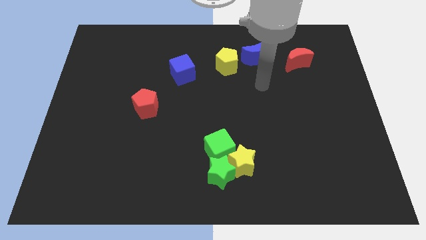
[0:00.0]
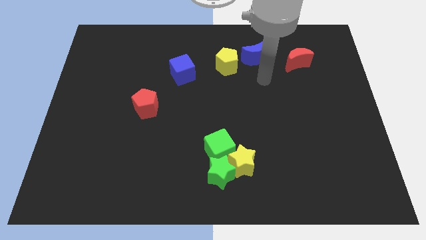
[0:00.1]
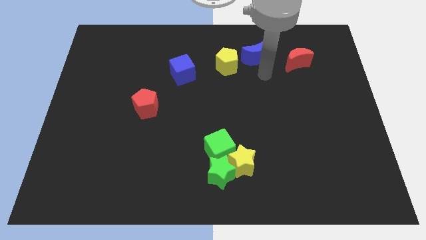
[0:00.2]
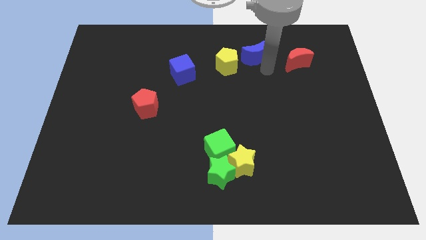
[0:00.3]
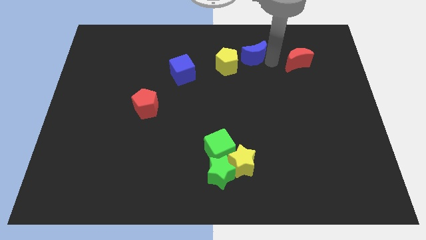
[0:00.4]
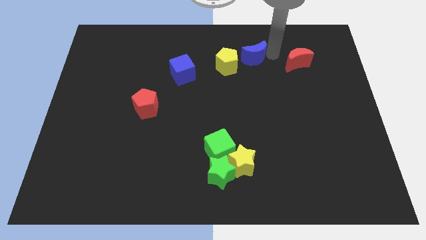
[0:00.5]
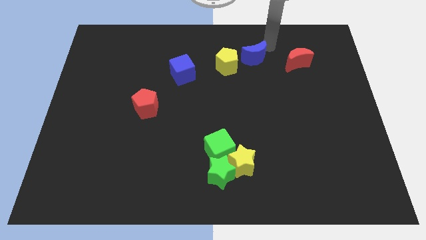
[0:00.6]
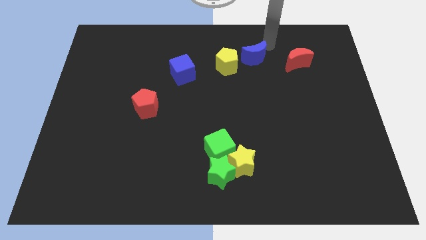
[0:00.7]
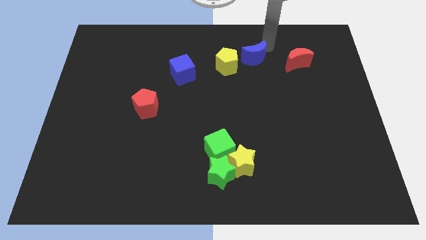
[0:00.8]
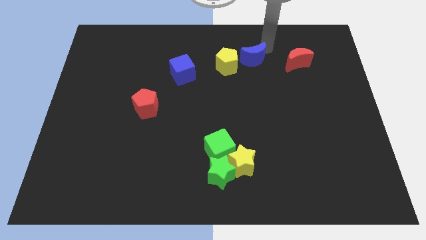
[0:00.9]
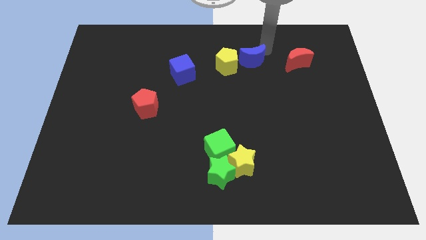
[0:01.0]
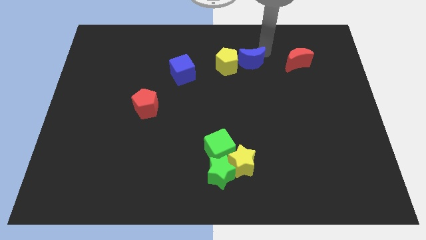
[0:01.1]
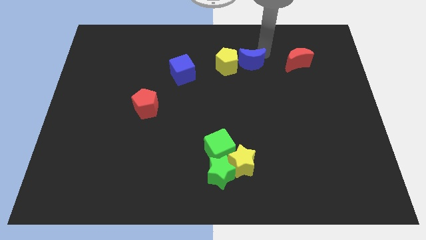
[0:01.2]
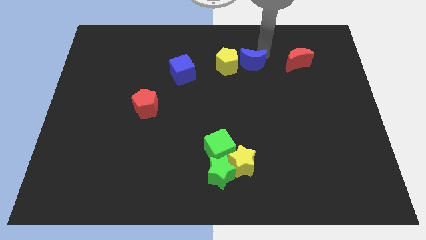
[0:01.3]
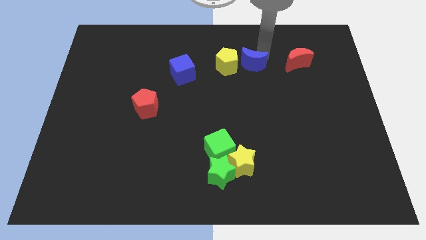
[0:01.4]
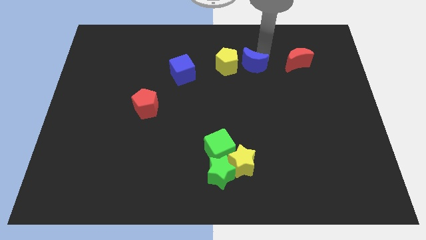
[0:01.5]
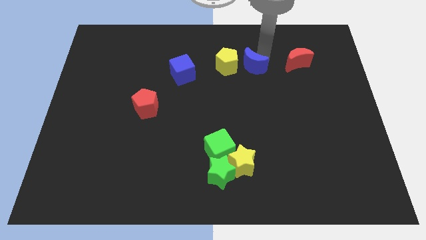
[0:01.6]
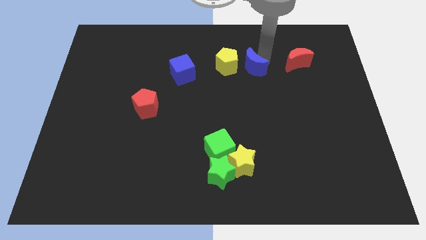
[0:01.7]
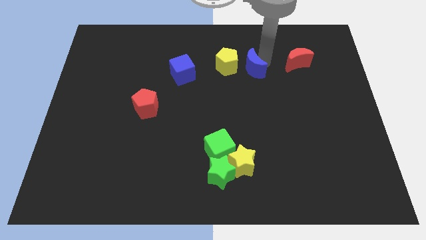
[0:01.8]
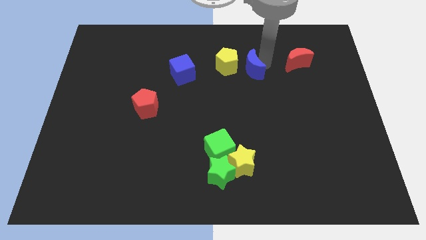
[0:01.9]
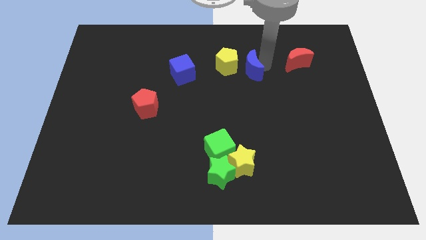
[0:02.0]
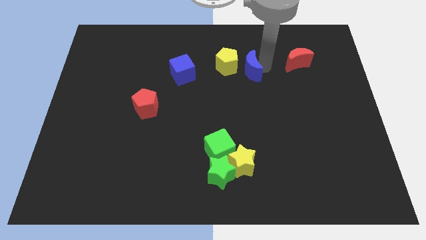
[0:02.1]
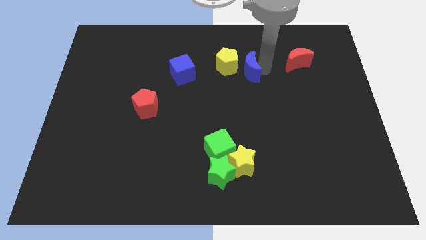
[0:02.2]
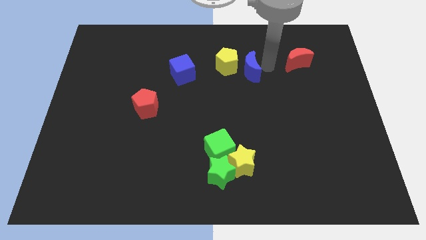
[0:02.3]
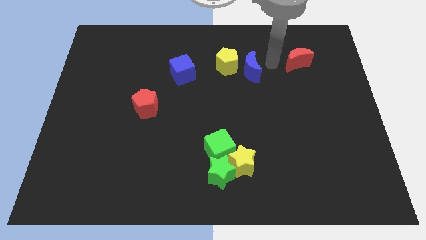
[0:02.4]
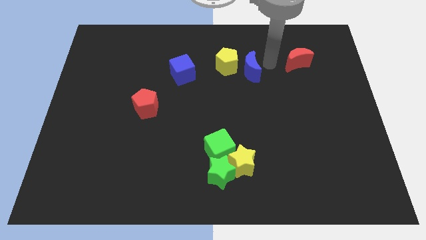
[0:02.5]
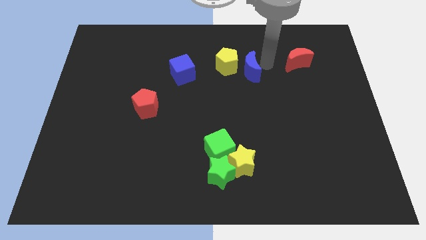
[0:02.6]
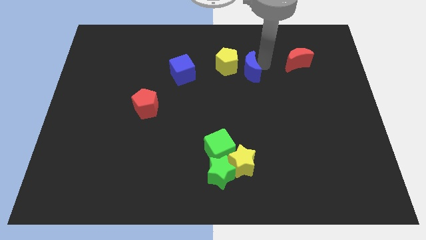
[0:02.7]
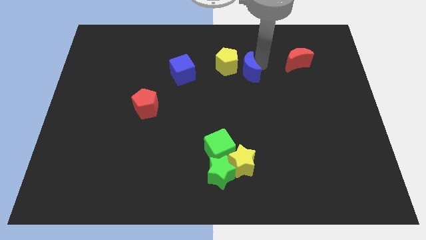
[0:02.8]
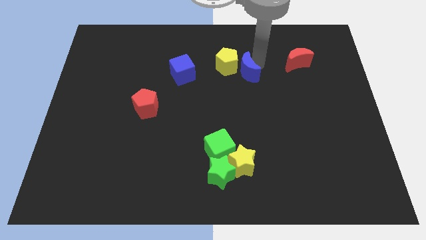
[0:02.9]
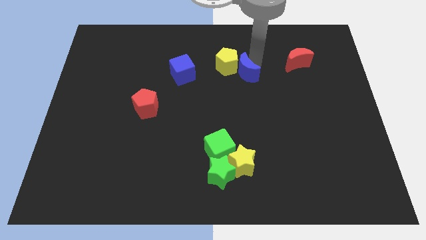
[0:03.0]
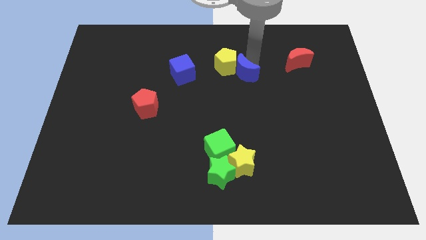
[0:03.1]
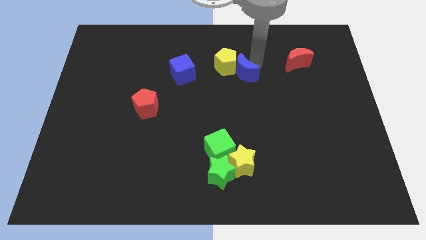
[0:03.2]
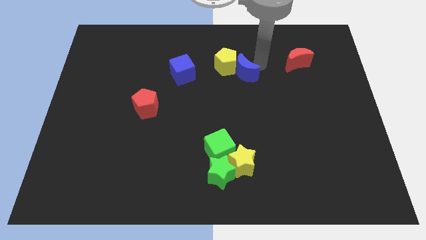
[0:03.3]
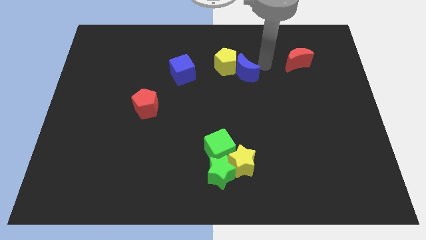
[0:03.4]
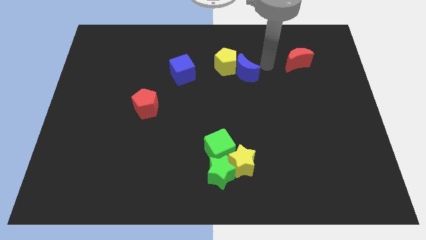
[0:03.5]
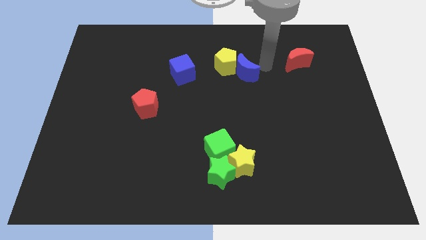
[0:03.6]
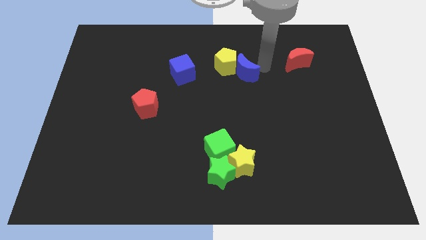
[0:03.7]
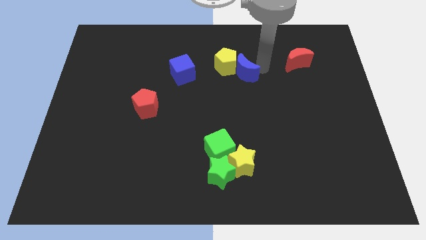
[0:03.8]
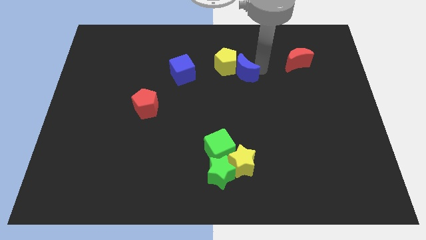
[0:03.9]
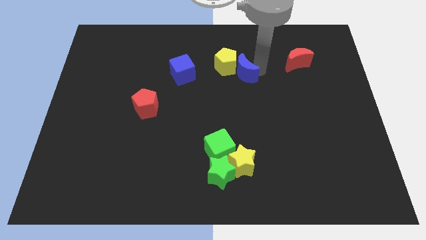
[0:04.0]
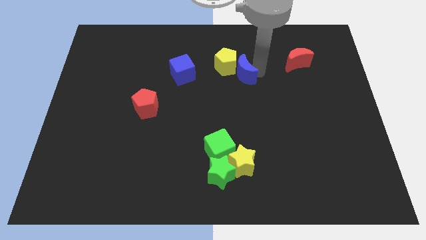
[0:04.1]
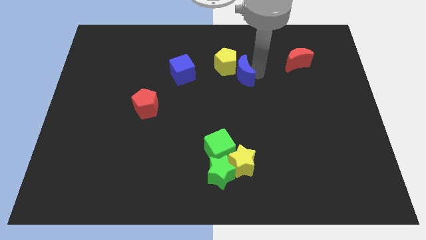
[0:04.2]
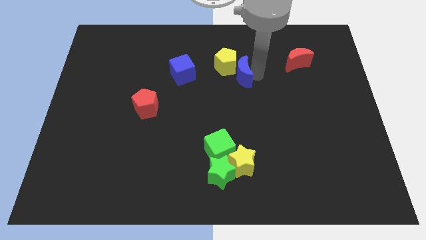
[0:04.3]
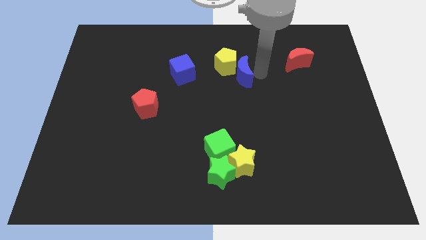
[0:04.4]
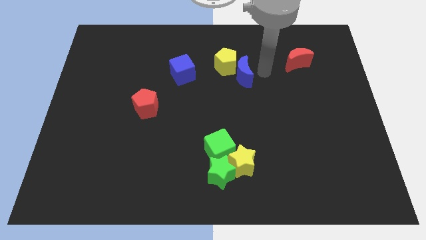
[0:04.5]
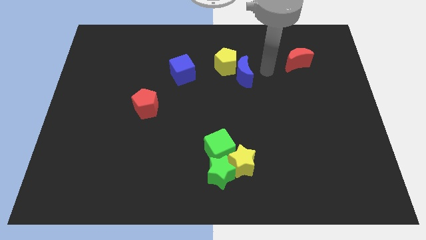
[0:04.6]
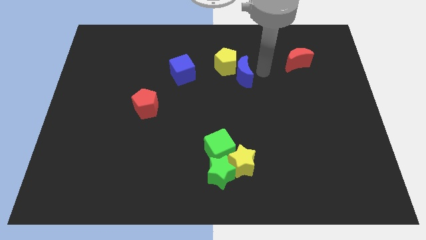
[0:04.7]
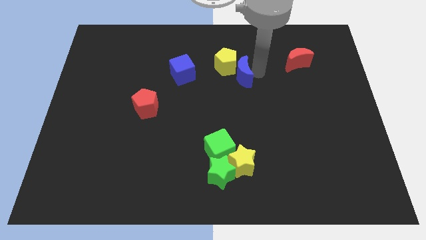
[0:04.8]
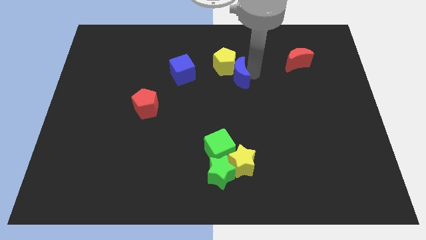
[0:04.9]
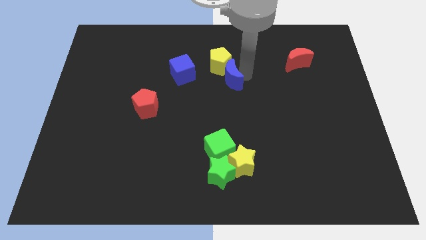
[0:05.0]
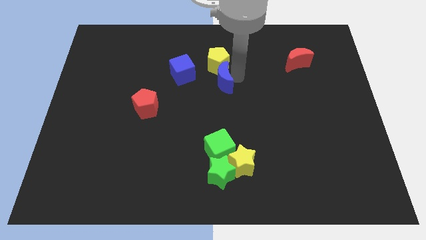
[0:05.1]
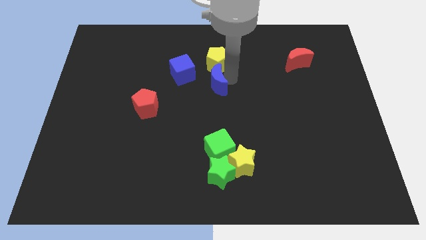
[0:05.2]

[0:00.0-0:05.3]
slide the blue moon to the bottom right side of the blue cube

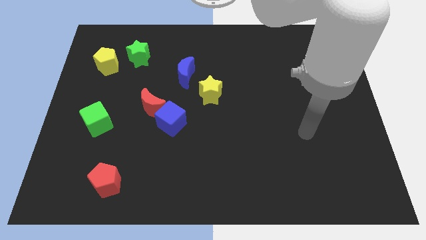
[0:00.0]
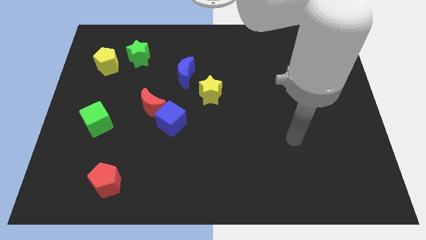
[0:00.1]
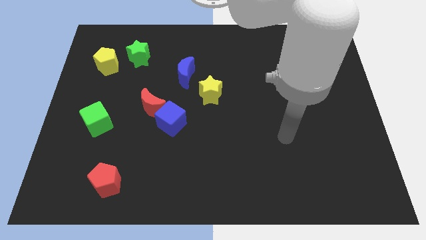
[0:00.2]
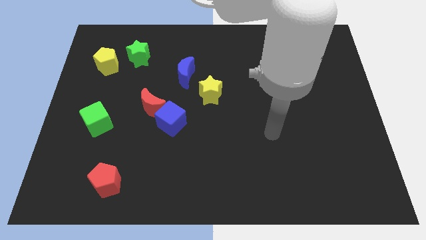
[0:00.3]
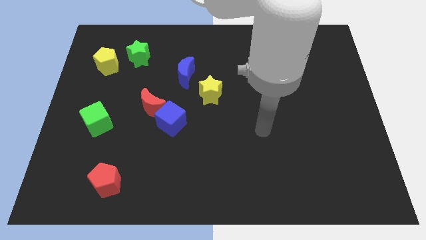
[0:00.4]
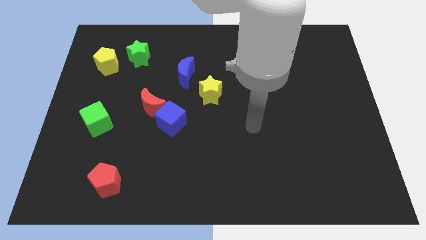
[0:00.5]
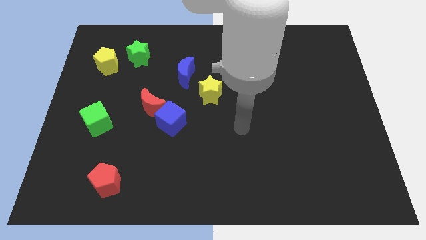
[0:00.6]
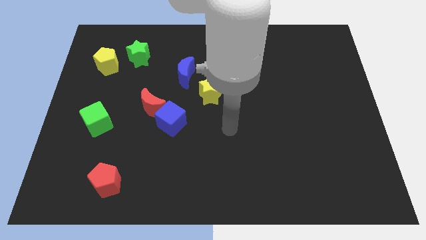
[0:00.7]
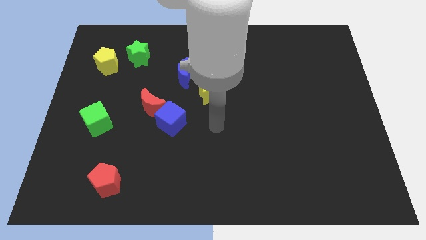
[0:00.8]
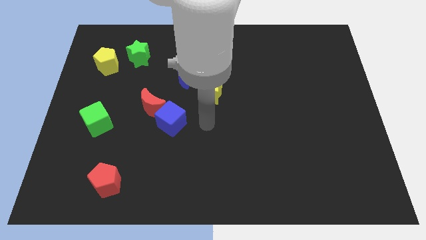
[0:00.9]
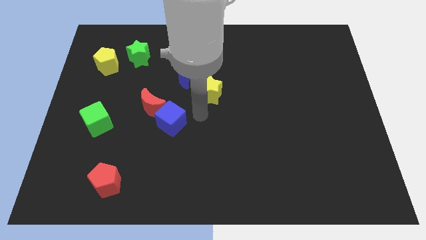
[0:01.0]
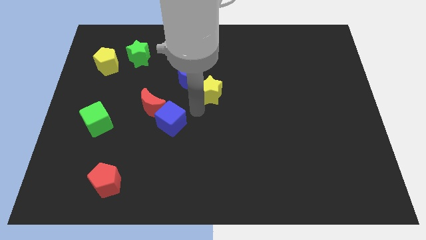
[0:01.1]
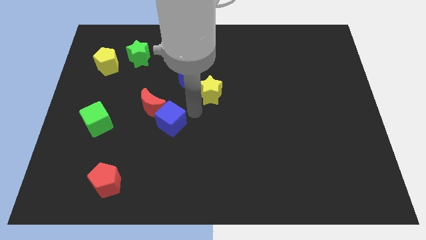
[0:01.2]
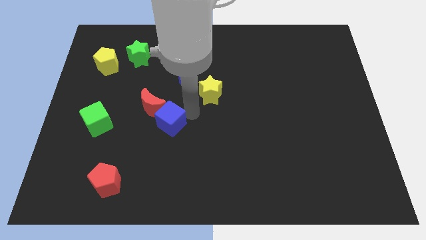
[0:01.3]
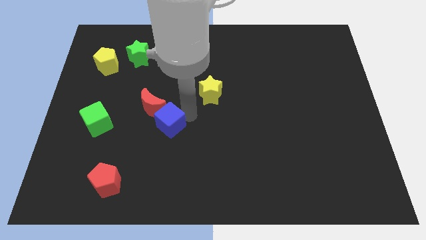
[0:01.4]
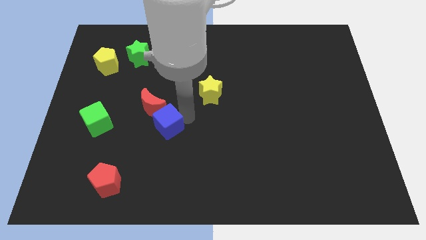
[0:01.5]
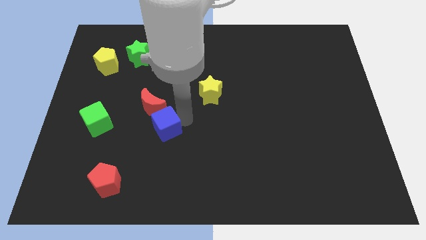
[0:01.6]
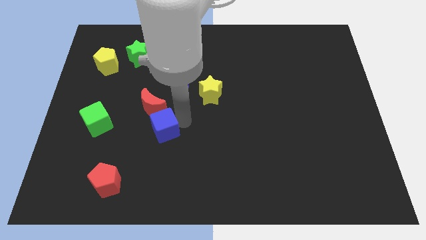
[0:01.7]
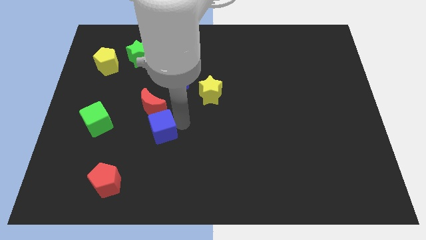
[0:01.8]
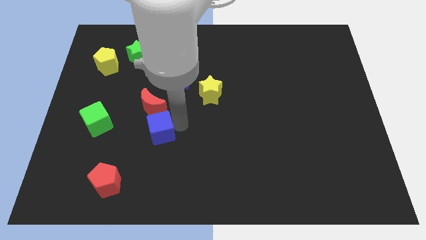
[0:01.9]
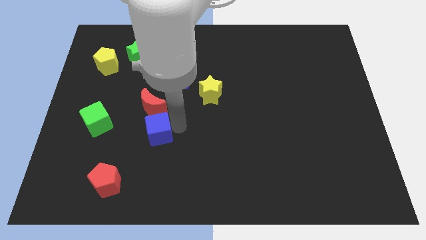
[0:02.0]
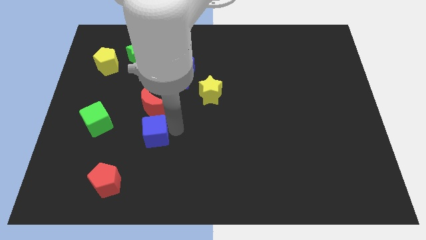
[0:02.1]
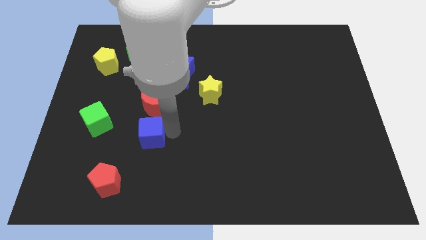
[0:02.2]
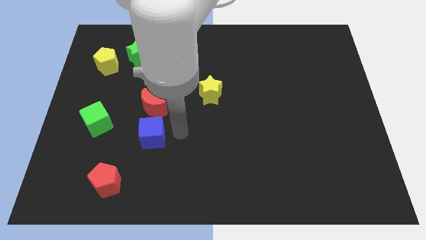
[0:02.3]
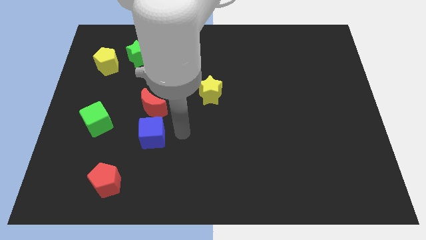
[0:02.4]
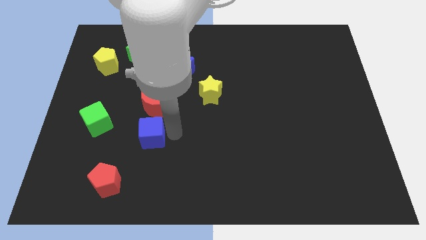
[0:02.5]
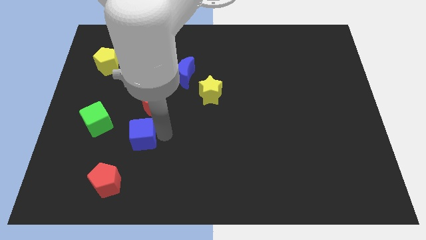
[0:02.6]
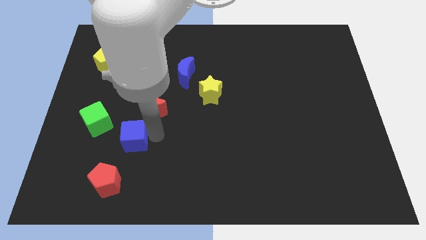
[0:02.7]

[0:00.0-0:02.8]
put the blue cube to the top side of the red pentagon
